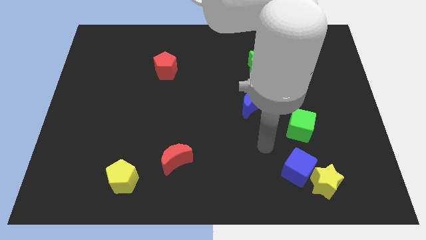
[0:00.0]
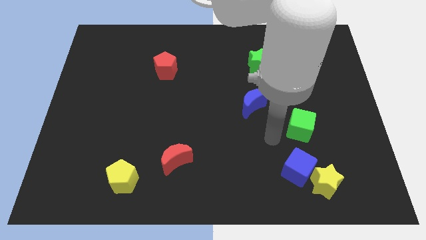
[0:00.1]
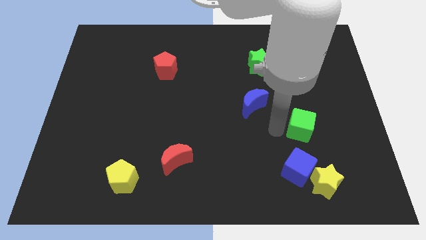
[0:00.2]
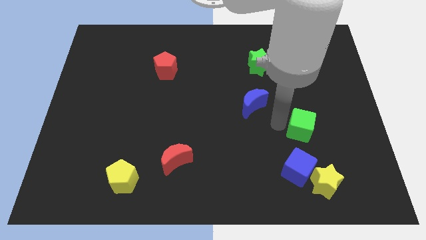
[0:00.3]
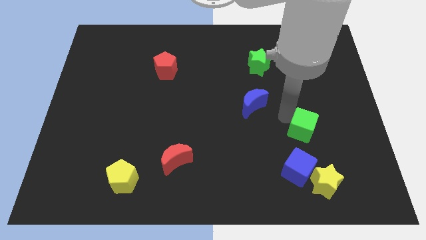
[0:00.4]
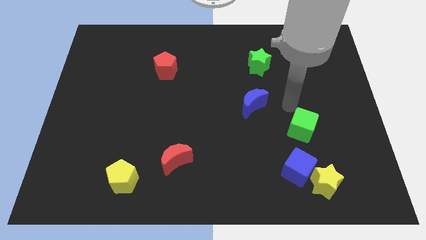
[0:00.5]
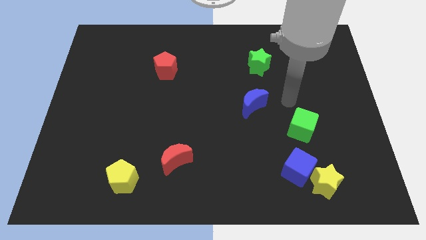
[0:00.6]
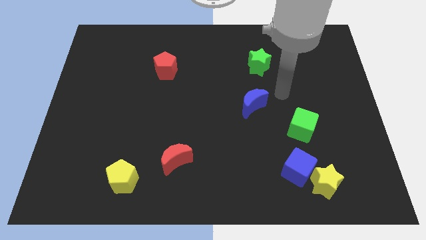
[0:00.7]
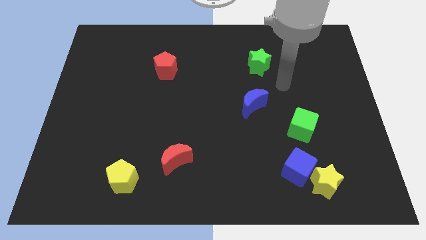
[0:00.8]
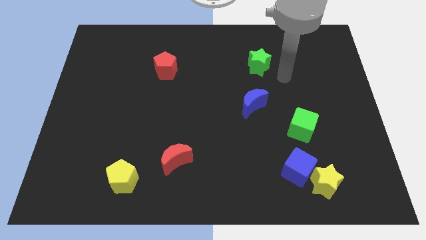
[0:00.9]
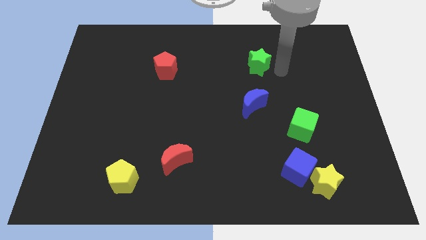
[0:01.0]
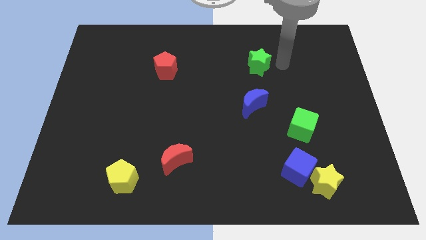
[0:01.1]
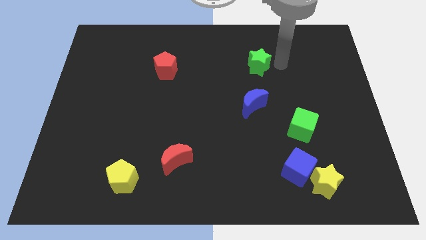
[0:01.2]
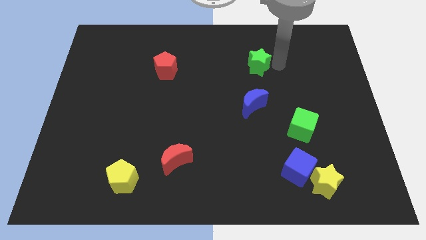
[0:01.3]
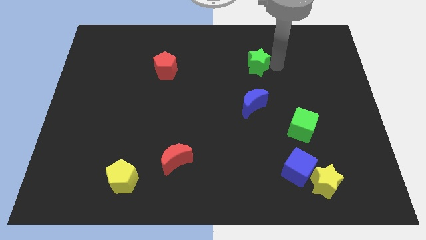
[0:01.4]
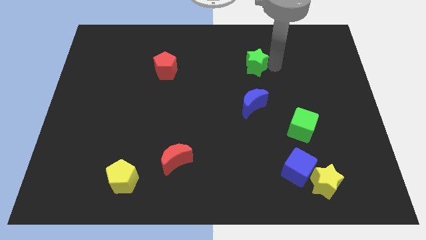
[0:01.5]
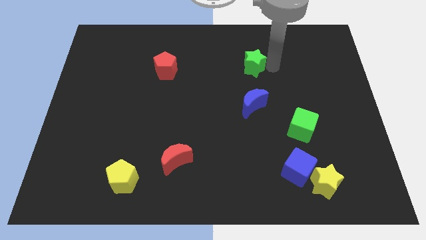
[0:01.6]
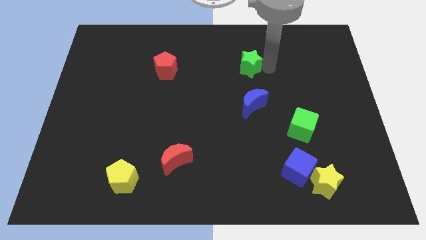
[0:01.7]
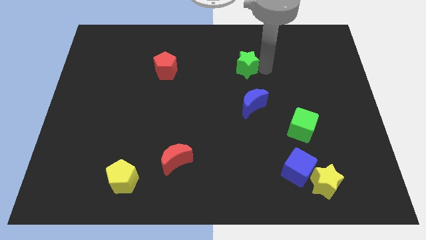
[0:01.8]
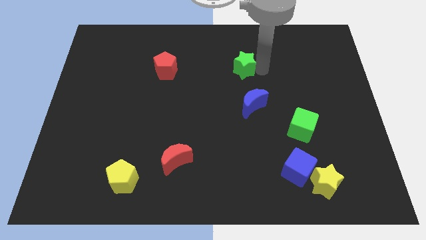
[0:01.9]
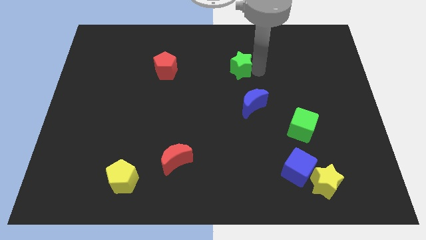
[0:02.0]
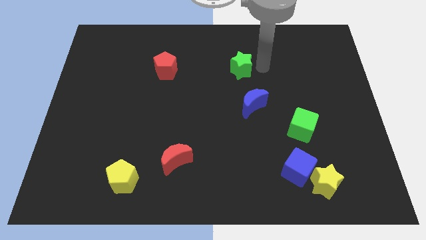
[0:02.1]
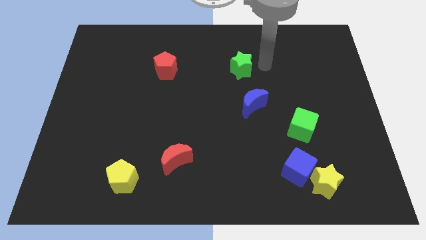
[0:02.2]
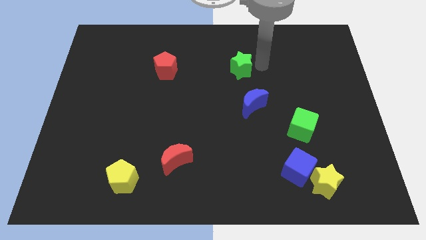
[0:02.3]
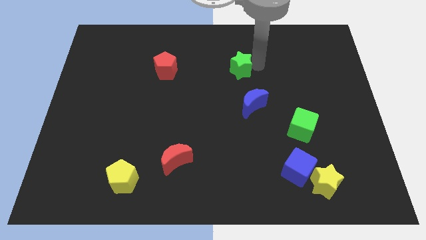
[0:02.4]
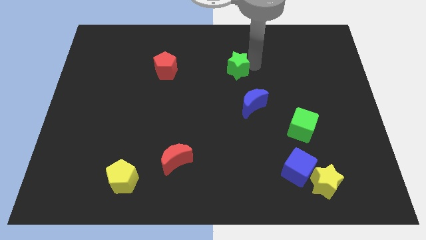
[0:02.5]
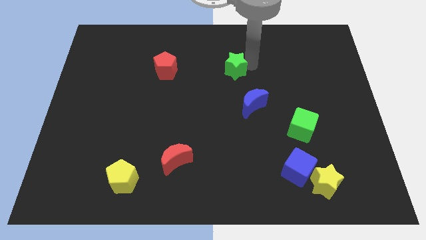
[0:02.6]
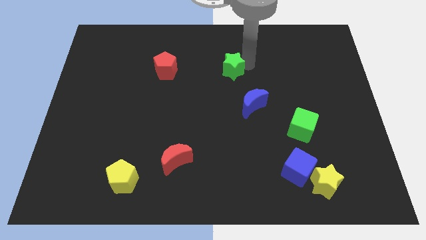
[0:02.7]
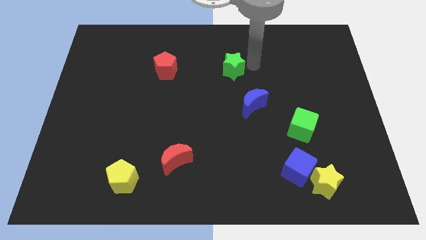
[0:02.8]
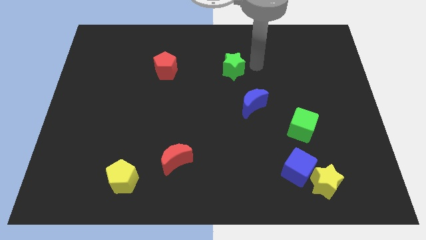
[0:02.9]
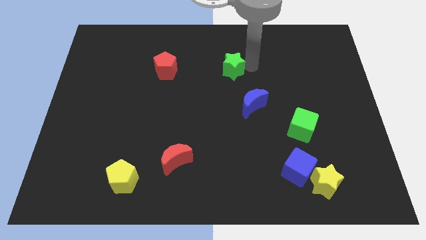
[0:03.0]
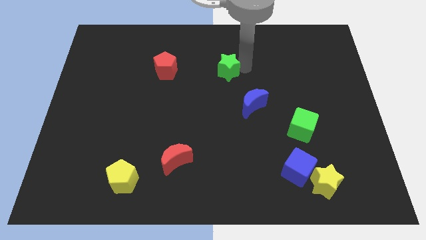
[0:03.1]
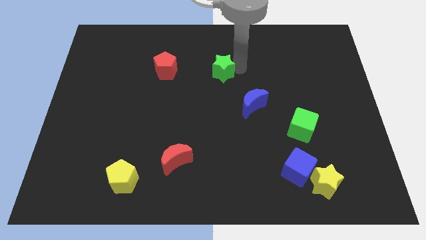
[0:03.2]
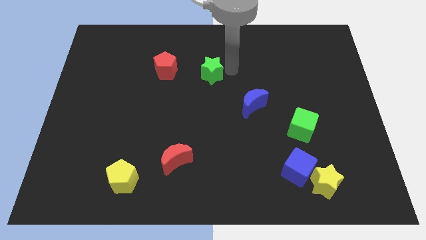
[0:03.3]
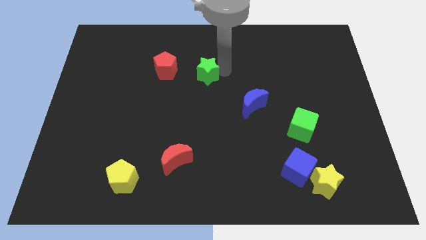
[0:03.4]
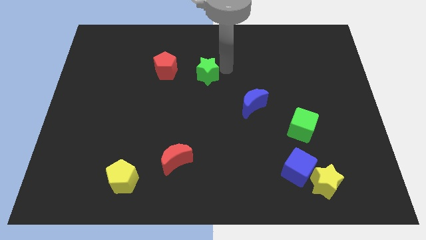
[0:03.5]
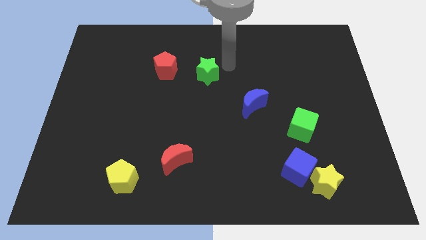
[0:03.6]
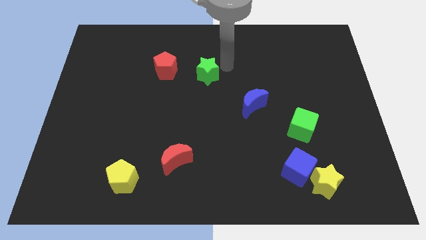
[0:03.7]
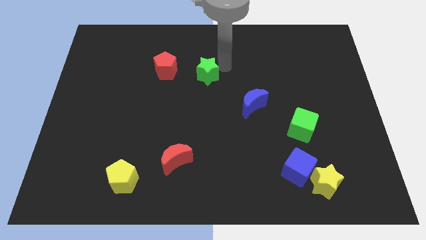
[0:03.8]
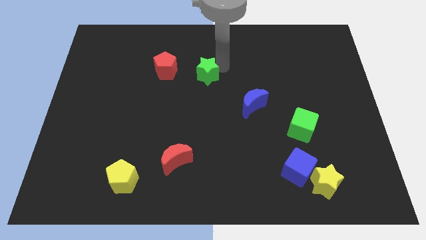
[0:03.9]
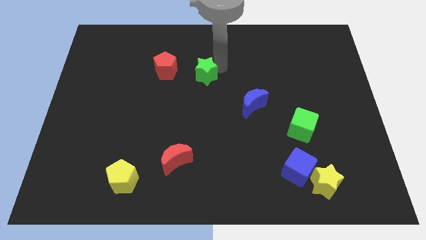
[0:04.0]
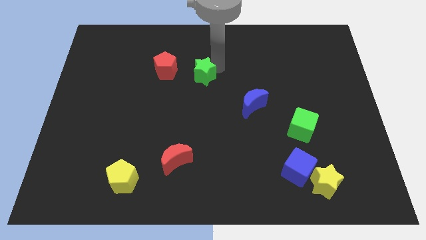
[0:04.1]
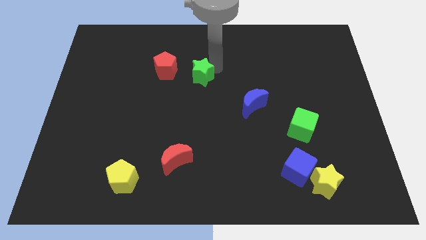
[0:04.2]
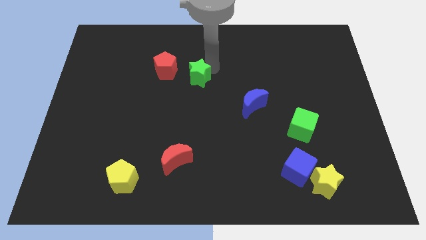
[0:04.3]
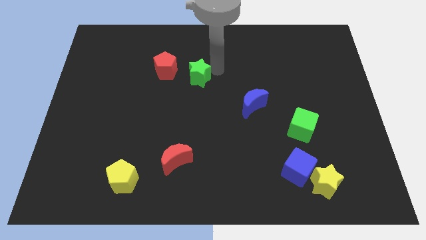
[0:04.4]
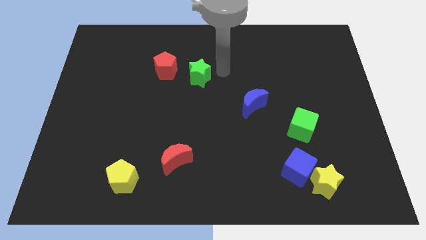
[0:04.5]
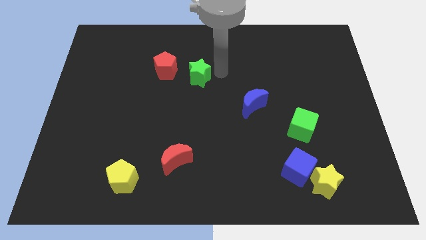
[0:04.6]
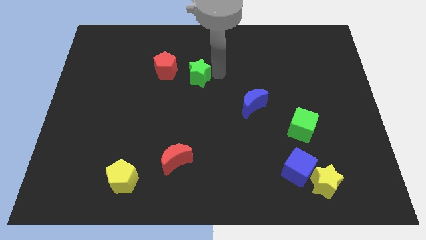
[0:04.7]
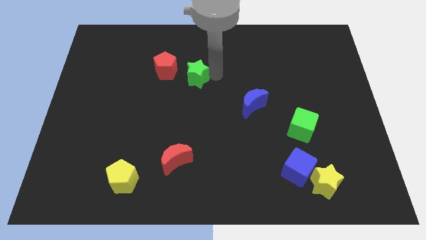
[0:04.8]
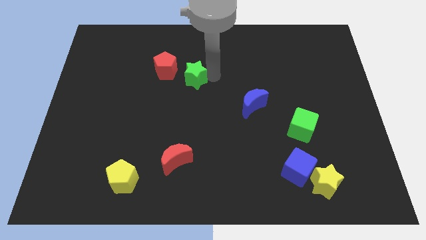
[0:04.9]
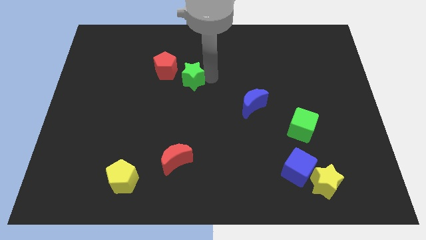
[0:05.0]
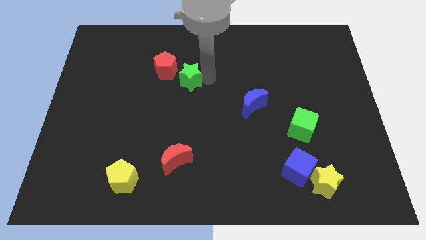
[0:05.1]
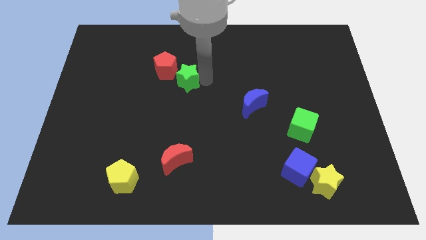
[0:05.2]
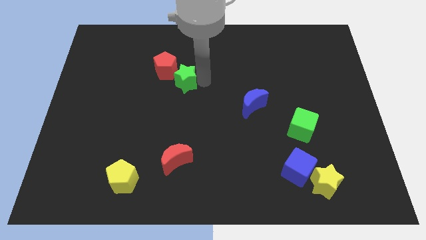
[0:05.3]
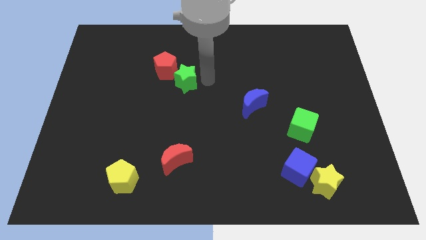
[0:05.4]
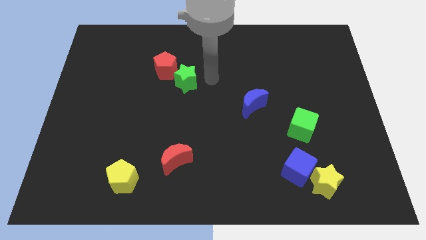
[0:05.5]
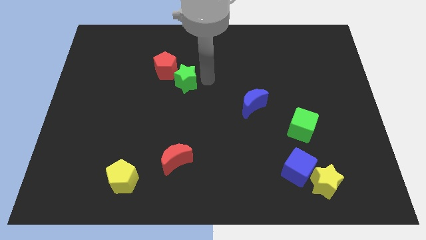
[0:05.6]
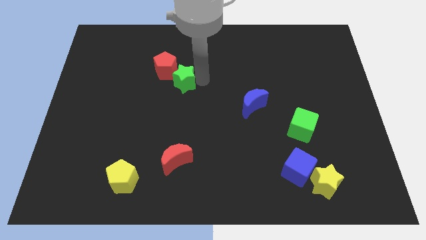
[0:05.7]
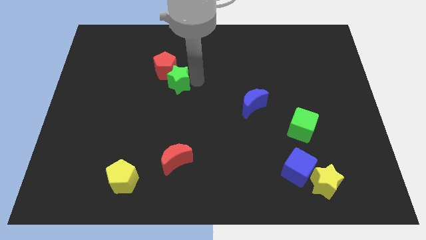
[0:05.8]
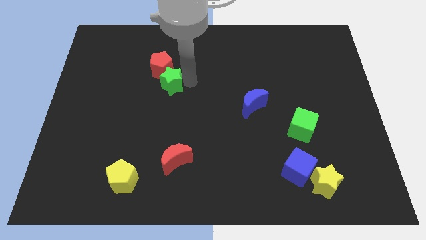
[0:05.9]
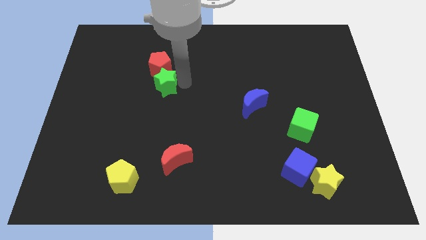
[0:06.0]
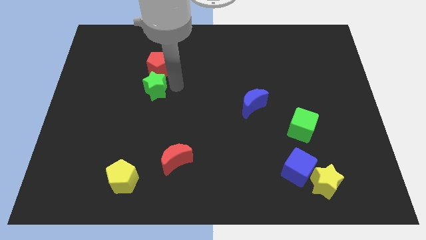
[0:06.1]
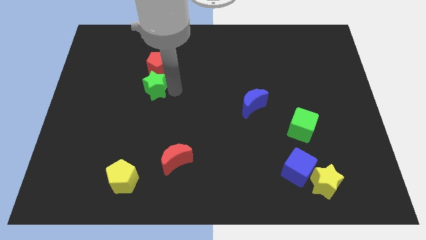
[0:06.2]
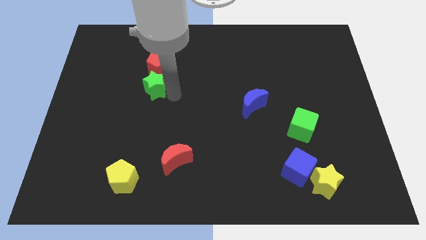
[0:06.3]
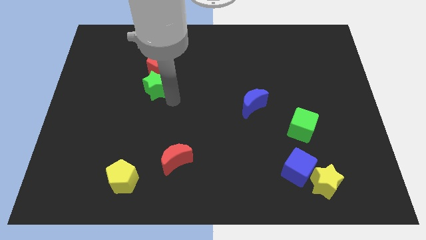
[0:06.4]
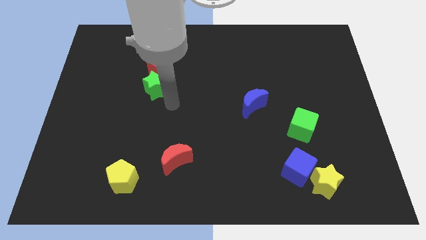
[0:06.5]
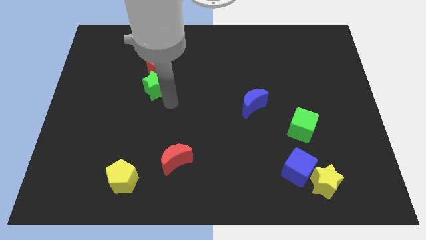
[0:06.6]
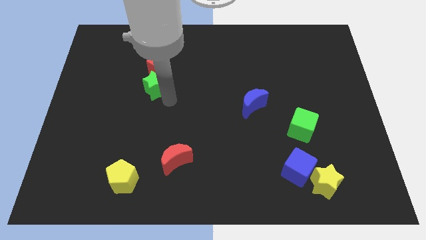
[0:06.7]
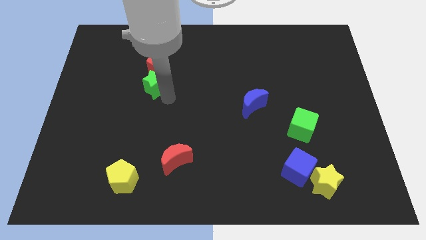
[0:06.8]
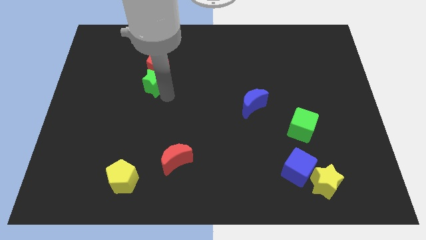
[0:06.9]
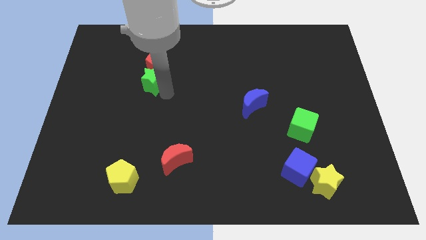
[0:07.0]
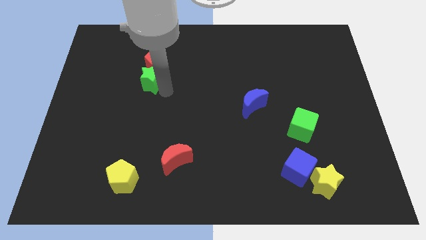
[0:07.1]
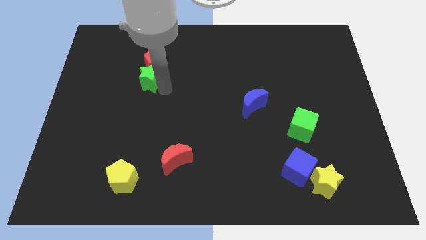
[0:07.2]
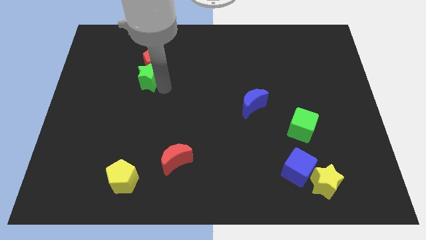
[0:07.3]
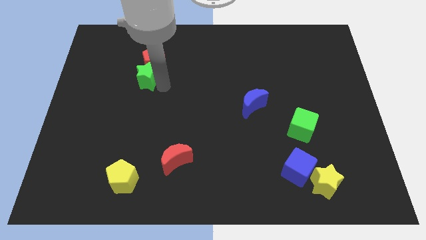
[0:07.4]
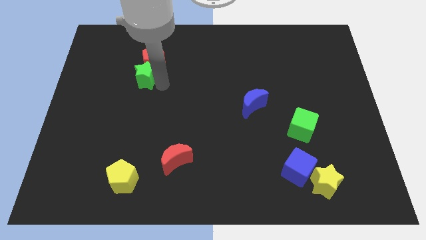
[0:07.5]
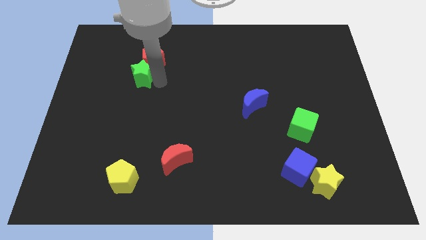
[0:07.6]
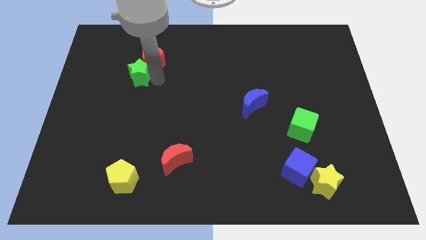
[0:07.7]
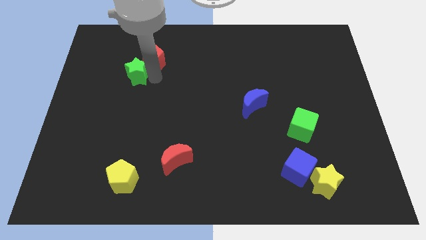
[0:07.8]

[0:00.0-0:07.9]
slide the green star left of the red pentagon
